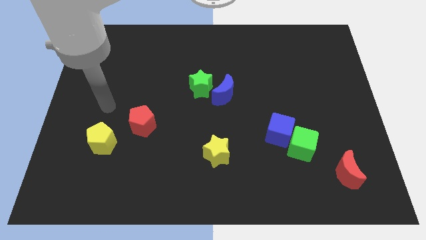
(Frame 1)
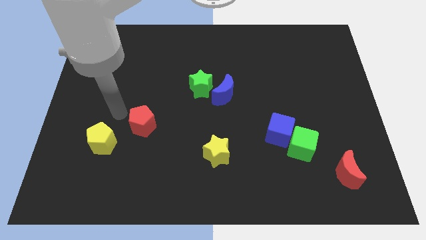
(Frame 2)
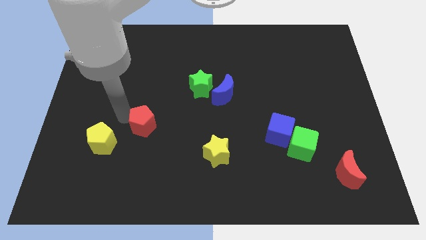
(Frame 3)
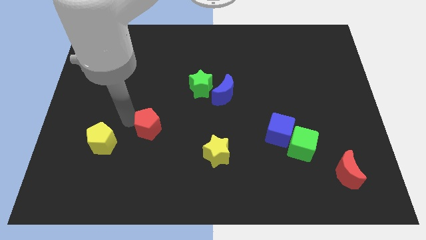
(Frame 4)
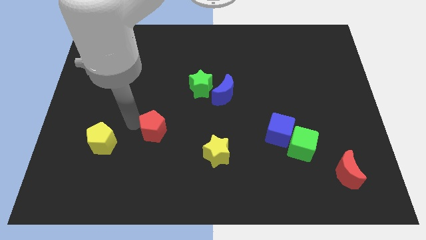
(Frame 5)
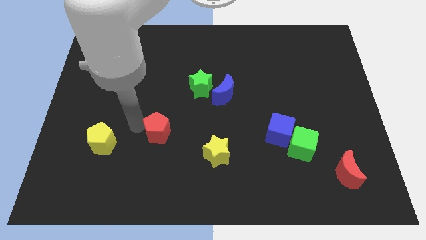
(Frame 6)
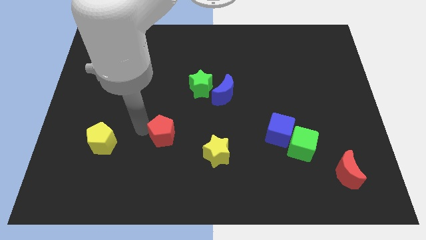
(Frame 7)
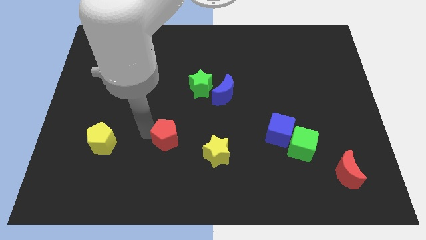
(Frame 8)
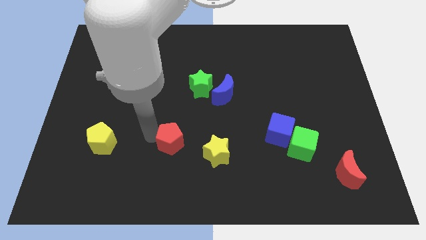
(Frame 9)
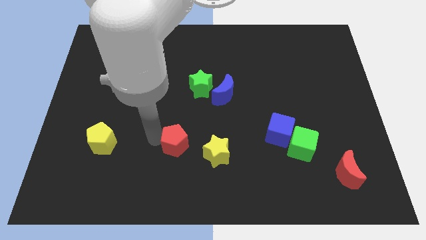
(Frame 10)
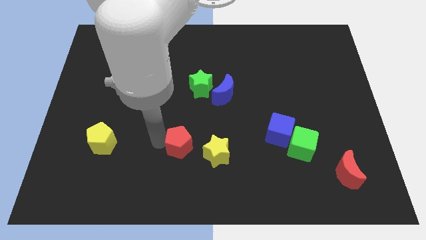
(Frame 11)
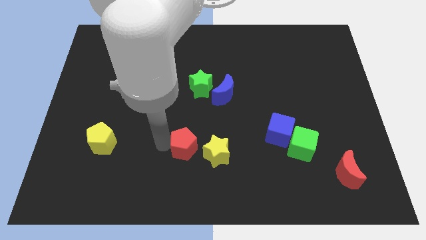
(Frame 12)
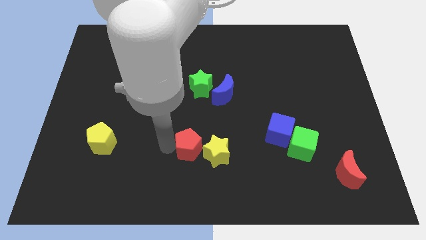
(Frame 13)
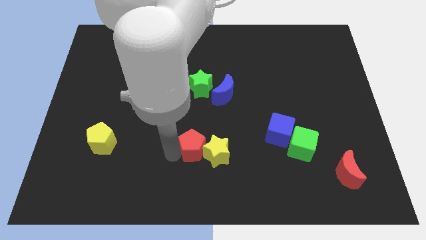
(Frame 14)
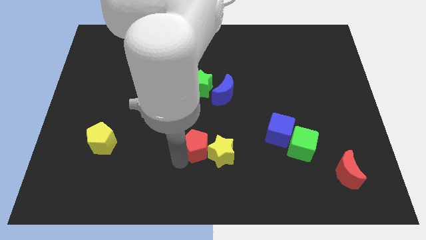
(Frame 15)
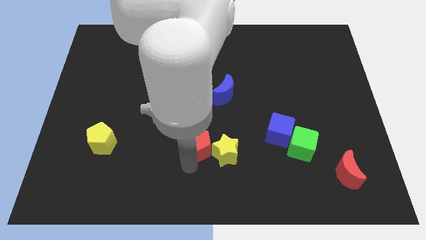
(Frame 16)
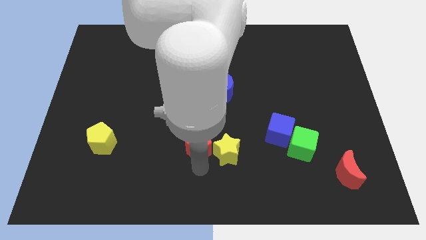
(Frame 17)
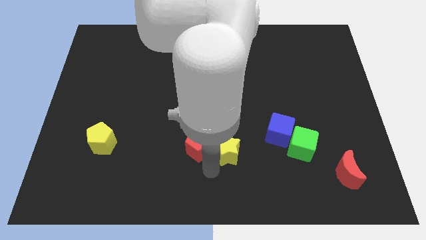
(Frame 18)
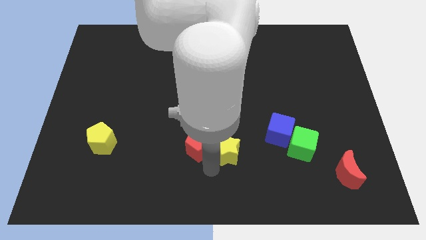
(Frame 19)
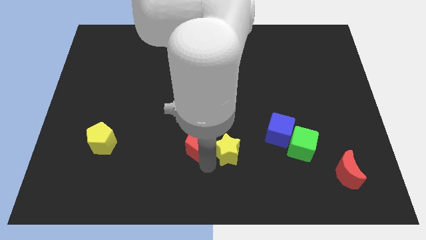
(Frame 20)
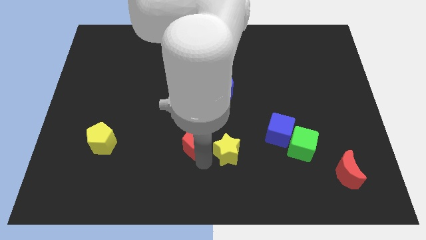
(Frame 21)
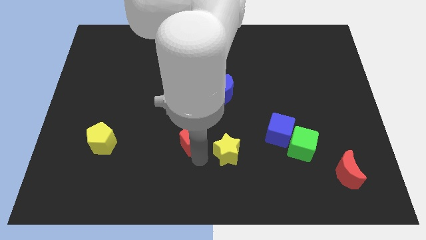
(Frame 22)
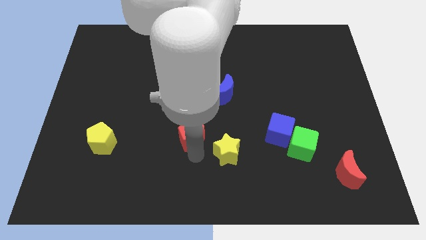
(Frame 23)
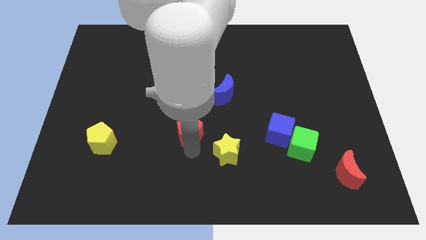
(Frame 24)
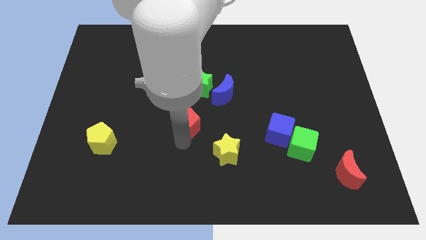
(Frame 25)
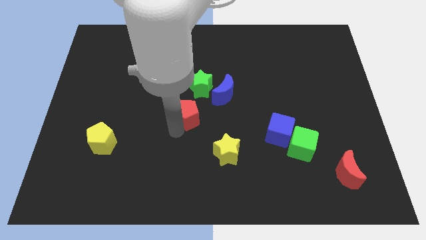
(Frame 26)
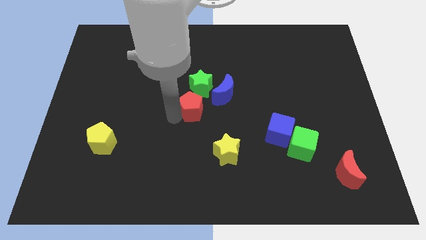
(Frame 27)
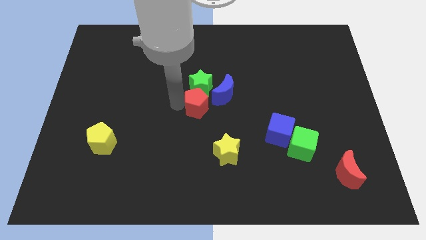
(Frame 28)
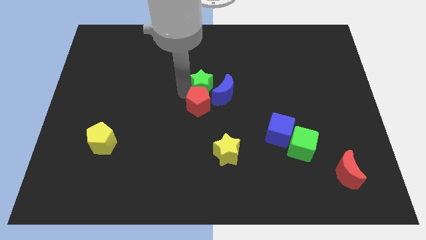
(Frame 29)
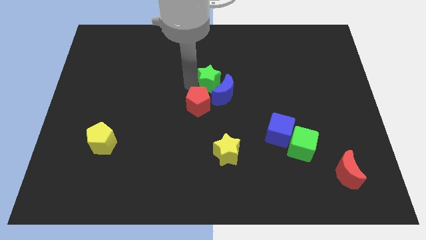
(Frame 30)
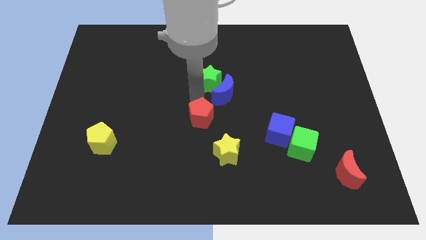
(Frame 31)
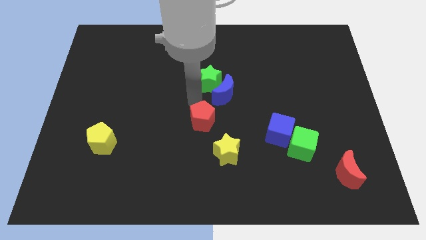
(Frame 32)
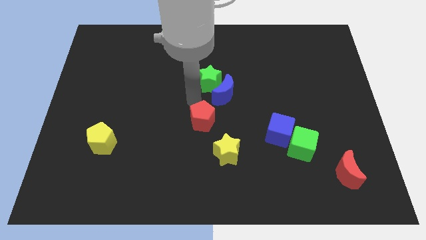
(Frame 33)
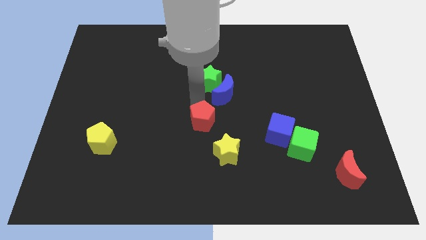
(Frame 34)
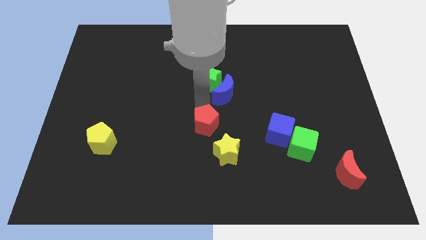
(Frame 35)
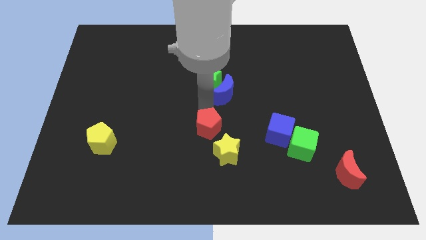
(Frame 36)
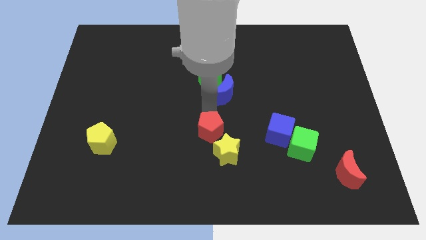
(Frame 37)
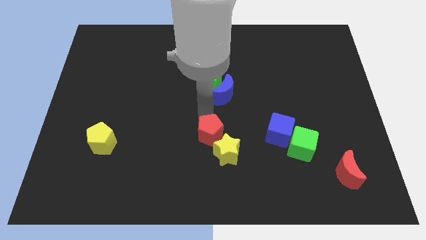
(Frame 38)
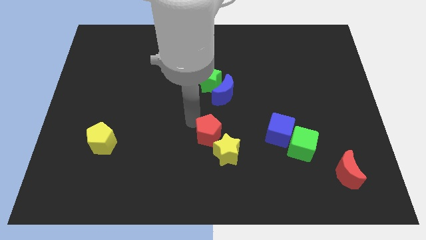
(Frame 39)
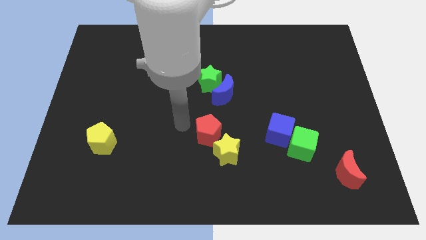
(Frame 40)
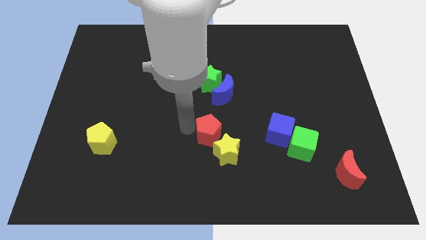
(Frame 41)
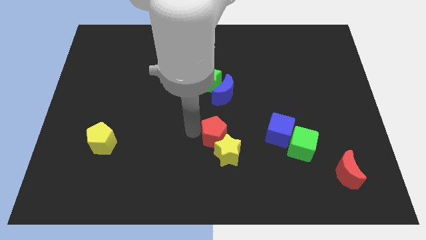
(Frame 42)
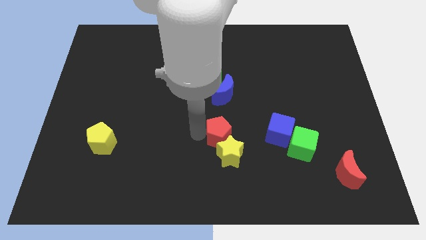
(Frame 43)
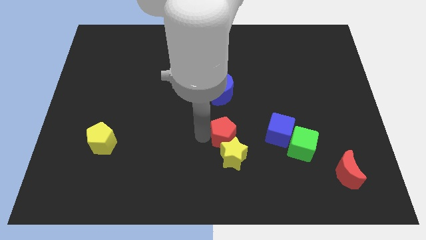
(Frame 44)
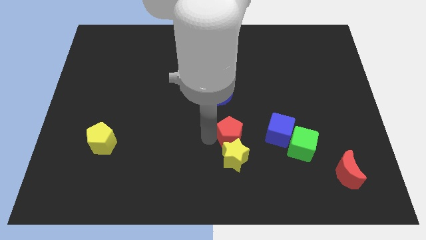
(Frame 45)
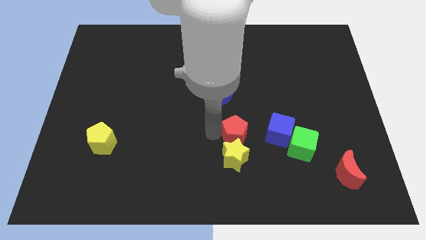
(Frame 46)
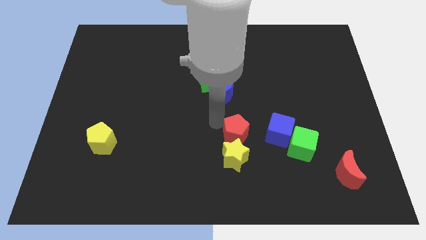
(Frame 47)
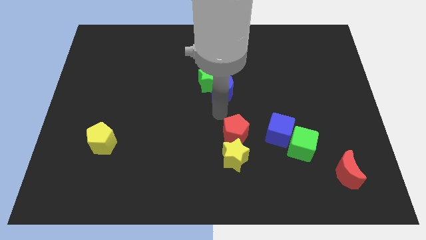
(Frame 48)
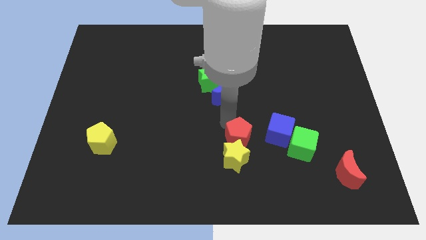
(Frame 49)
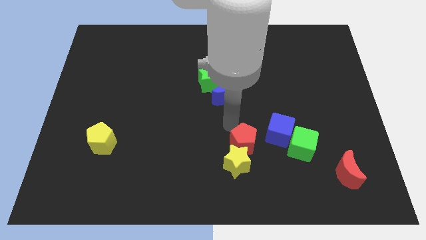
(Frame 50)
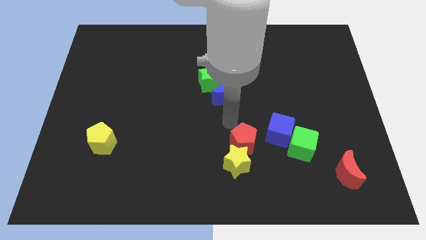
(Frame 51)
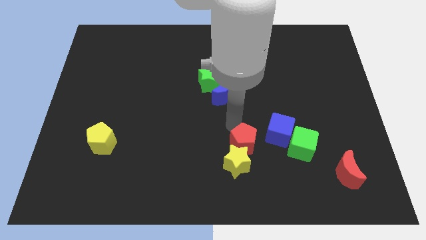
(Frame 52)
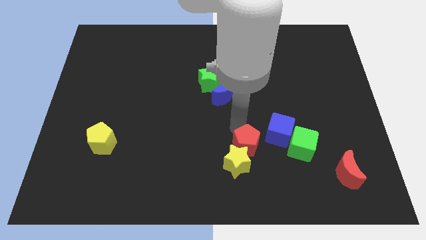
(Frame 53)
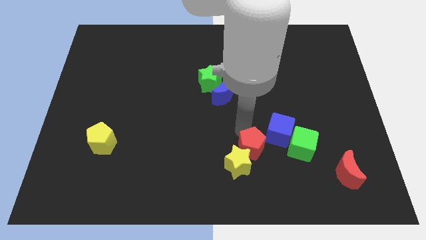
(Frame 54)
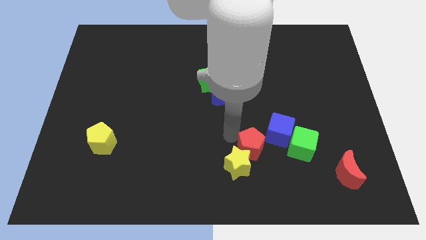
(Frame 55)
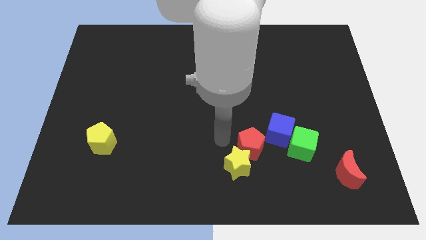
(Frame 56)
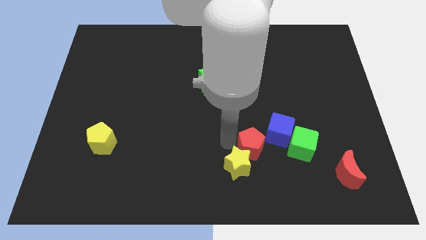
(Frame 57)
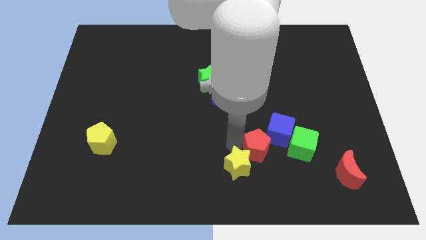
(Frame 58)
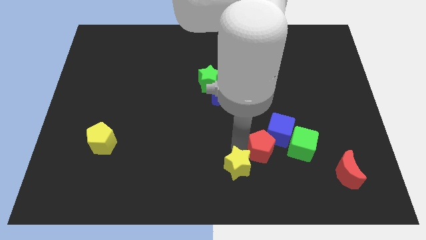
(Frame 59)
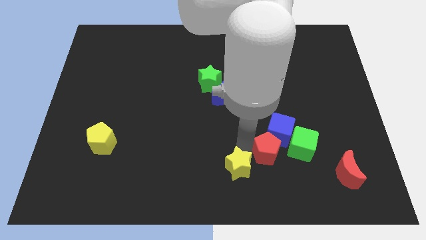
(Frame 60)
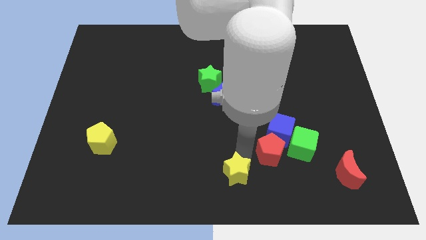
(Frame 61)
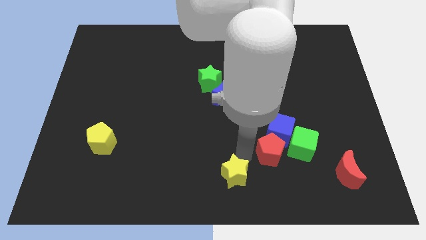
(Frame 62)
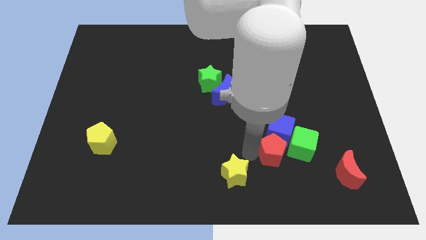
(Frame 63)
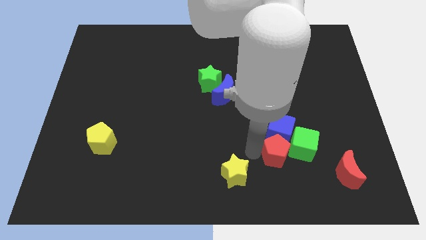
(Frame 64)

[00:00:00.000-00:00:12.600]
push the red pentagon next to the green cube
